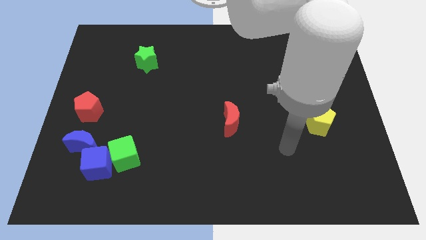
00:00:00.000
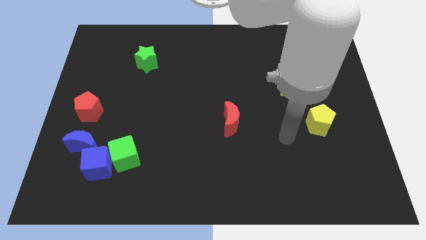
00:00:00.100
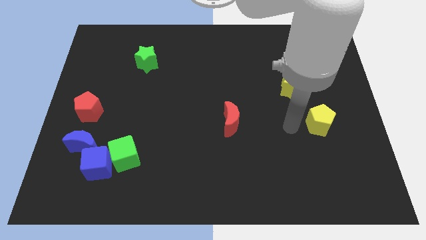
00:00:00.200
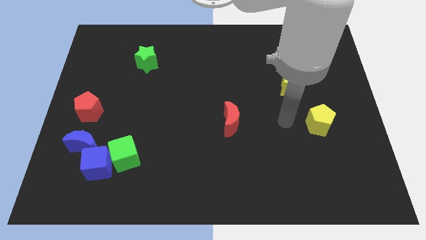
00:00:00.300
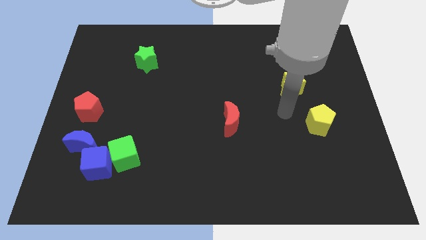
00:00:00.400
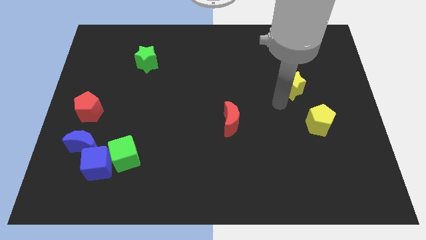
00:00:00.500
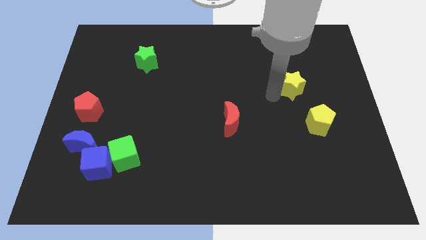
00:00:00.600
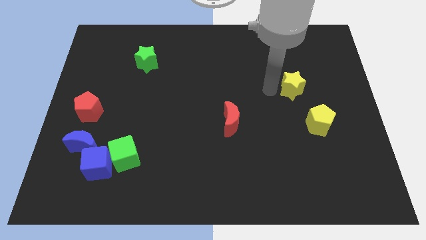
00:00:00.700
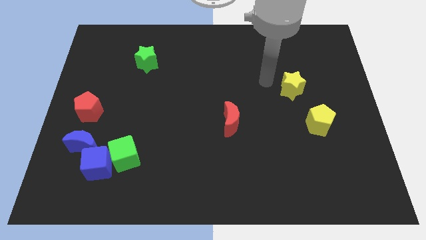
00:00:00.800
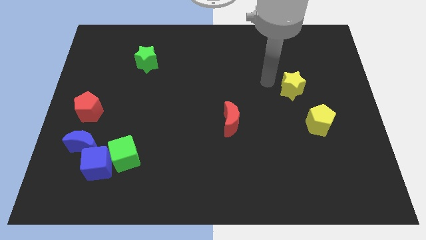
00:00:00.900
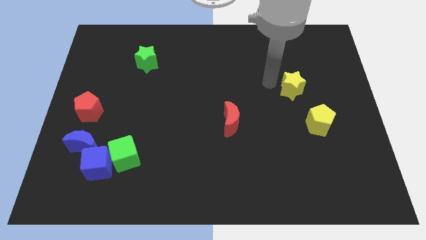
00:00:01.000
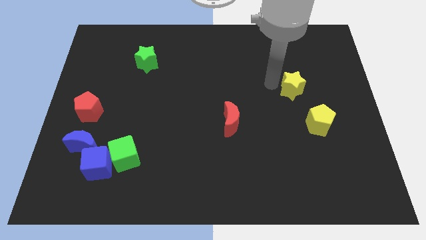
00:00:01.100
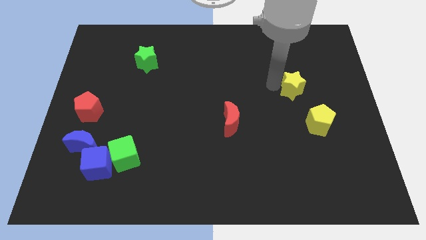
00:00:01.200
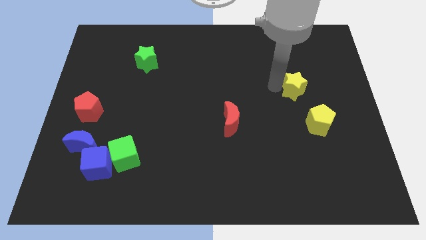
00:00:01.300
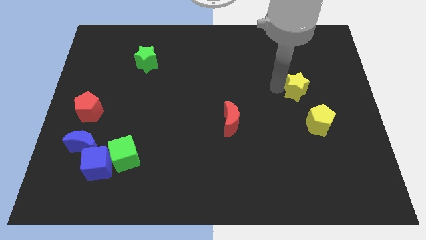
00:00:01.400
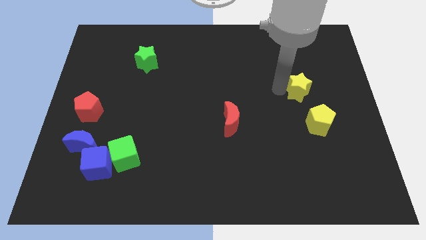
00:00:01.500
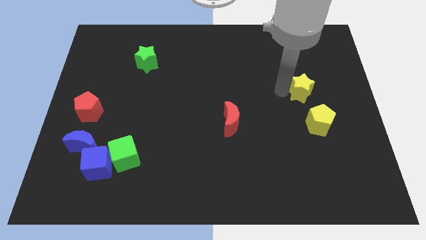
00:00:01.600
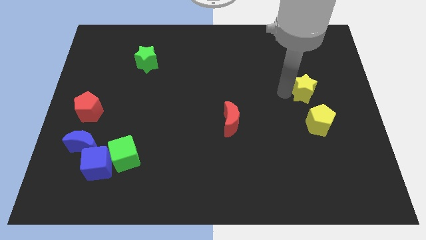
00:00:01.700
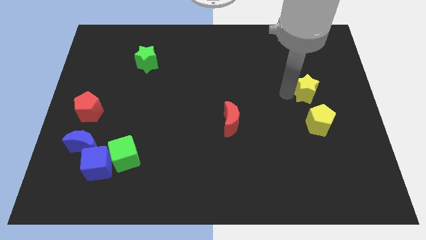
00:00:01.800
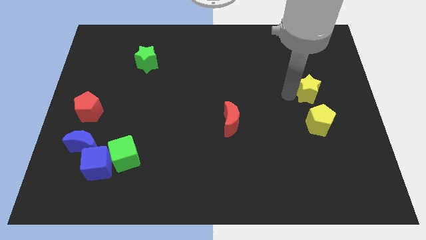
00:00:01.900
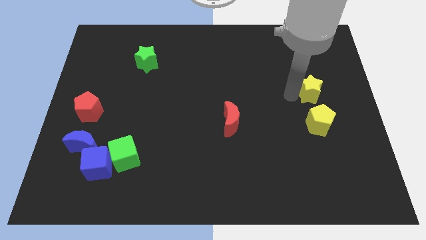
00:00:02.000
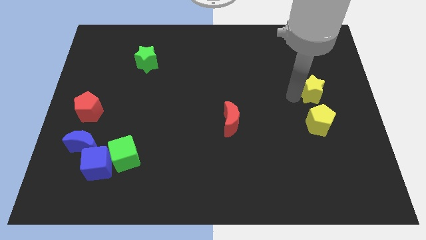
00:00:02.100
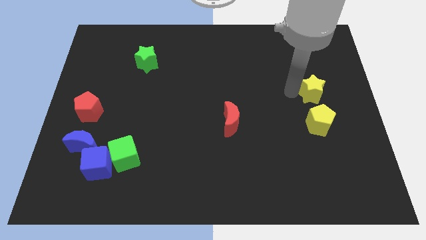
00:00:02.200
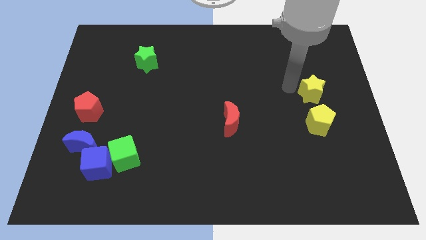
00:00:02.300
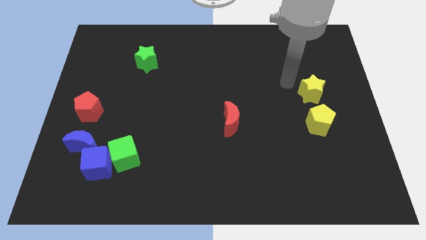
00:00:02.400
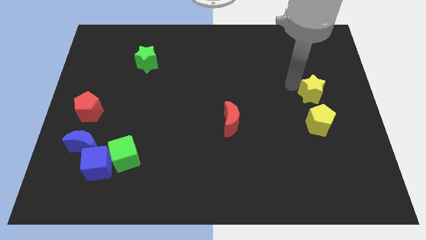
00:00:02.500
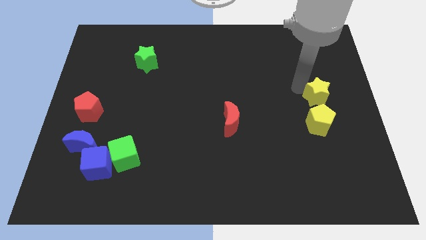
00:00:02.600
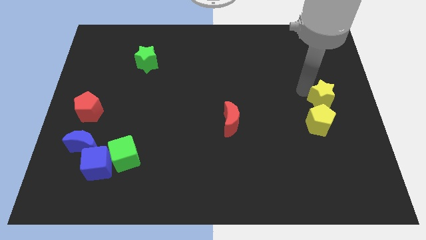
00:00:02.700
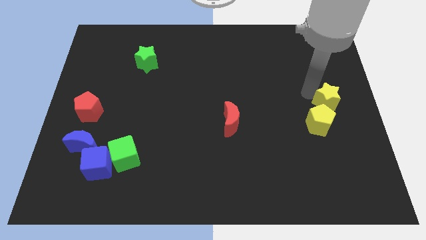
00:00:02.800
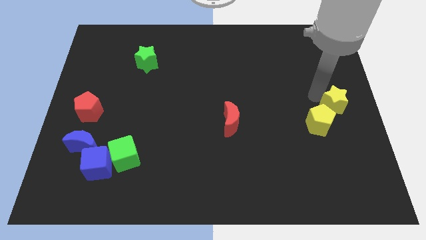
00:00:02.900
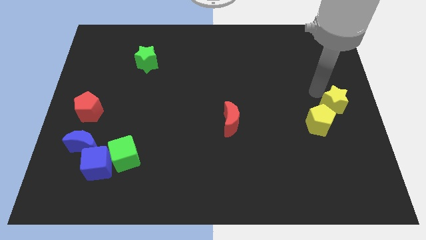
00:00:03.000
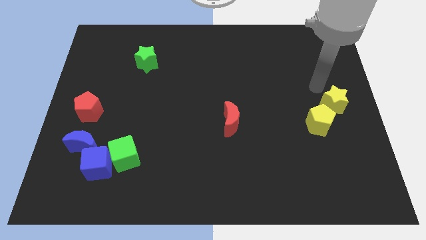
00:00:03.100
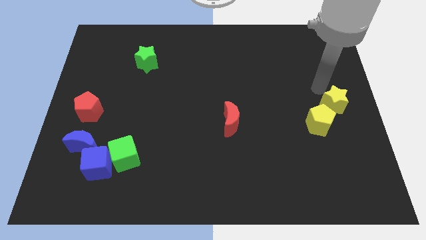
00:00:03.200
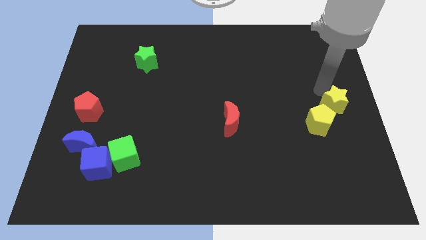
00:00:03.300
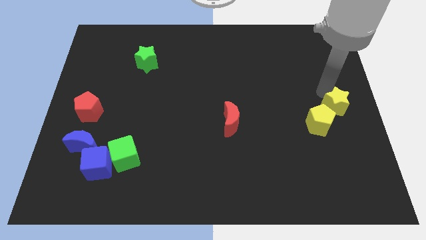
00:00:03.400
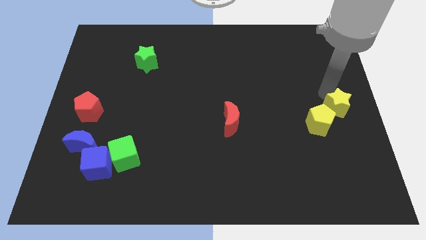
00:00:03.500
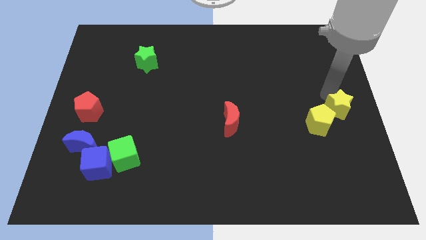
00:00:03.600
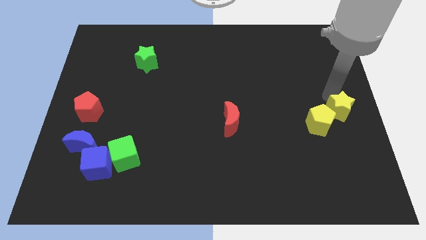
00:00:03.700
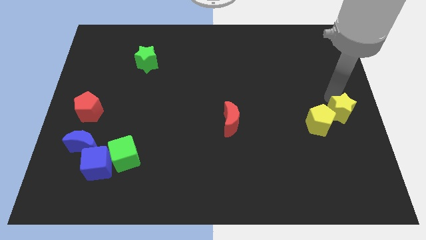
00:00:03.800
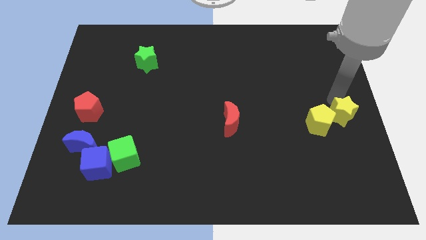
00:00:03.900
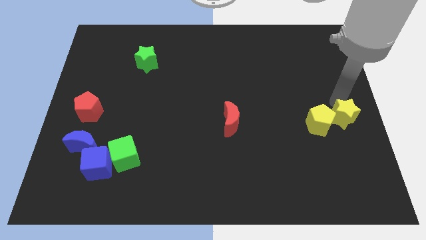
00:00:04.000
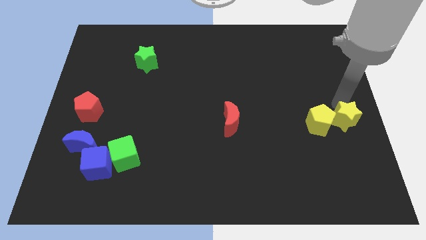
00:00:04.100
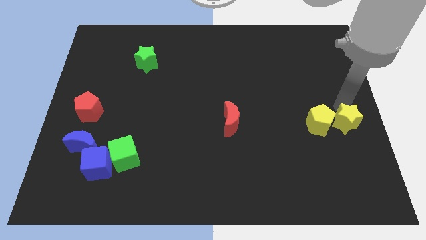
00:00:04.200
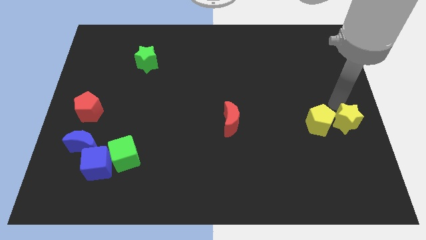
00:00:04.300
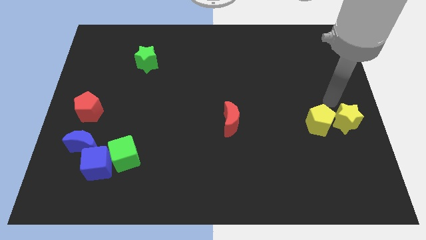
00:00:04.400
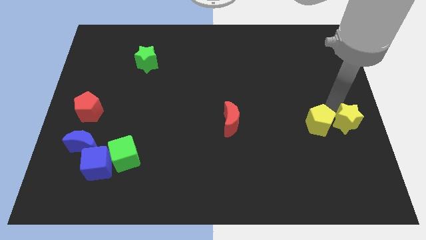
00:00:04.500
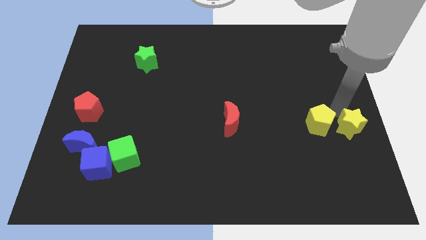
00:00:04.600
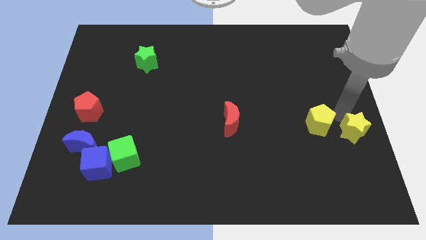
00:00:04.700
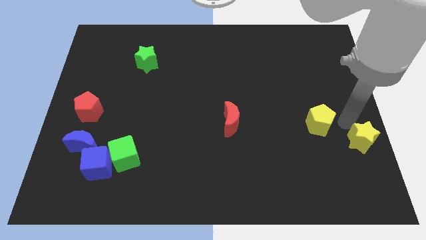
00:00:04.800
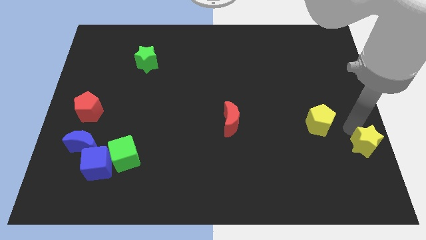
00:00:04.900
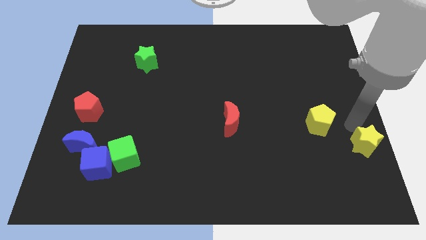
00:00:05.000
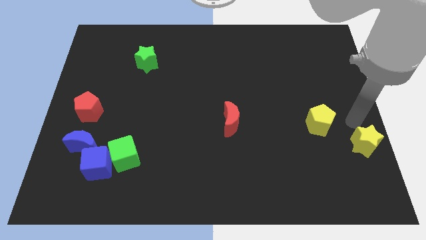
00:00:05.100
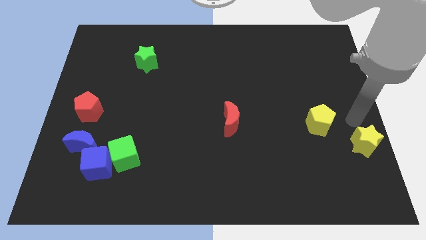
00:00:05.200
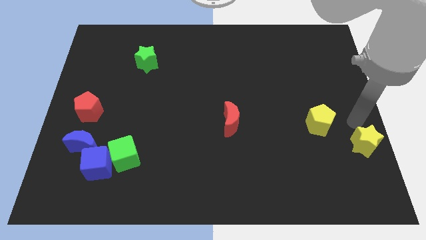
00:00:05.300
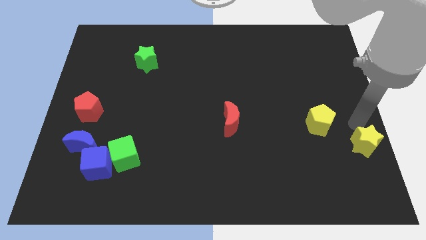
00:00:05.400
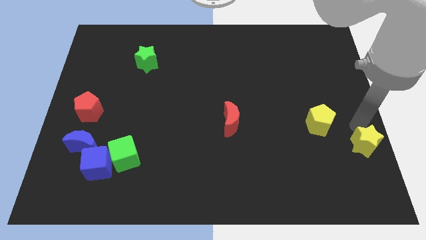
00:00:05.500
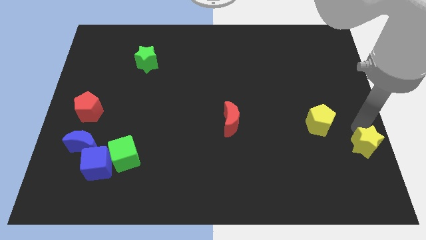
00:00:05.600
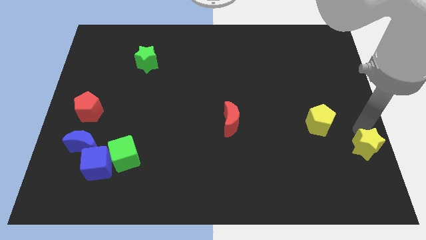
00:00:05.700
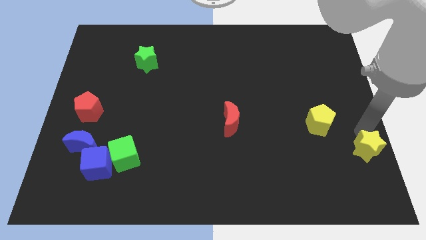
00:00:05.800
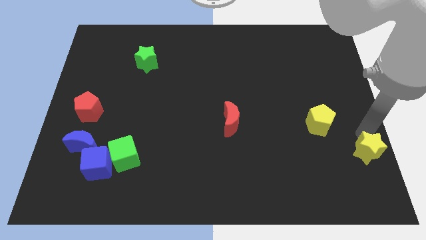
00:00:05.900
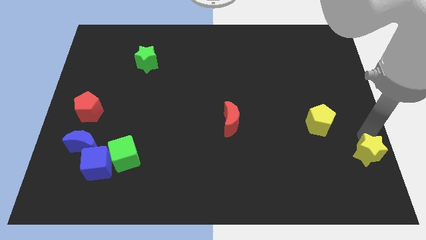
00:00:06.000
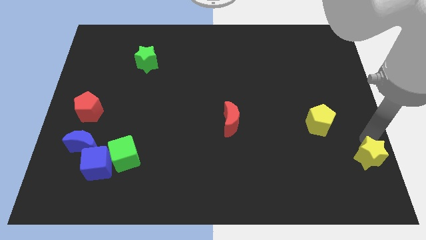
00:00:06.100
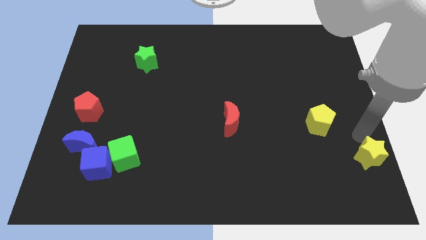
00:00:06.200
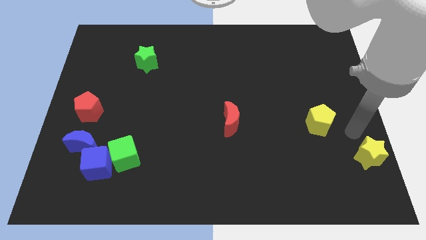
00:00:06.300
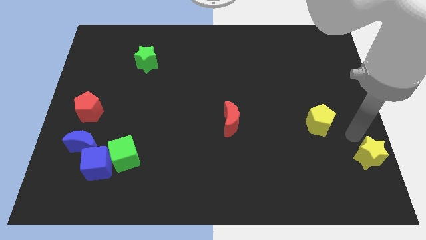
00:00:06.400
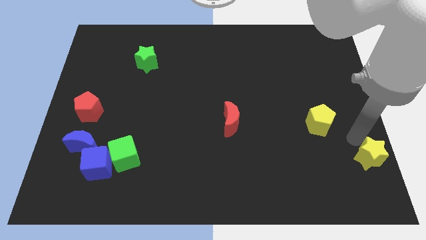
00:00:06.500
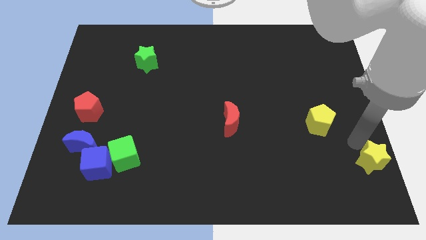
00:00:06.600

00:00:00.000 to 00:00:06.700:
move the yellow star to the bottom right corner
